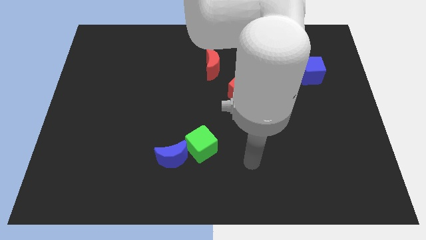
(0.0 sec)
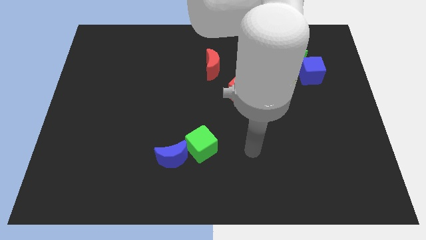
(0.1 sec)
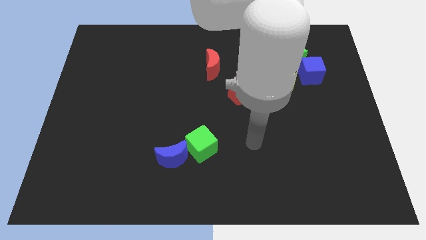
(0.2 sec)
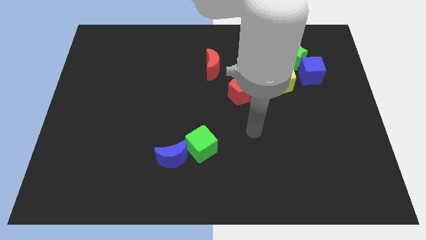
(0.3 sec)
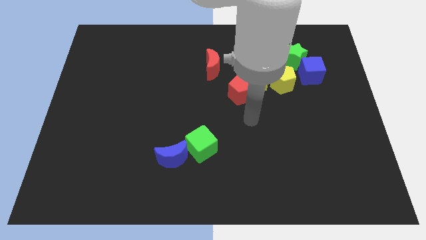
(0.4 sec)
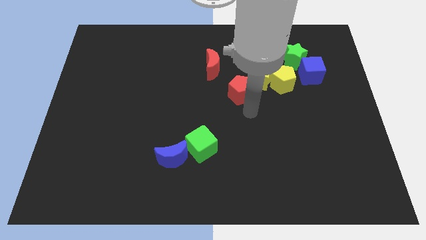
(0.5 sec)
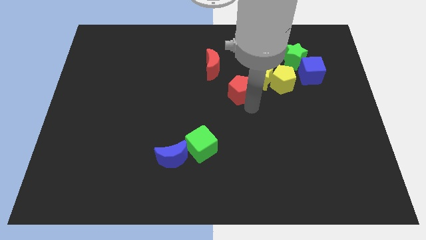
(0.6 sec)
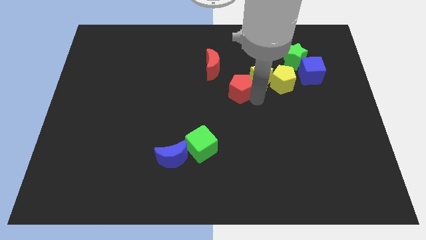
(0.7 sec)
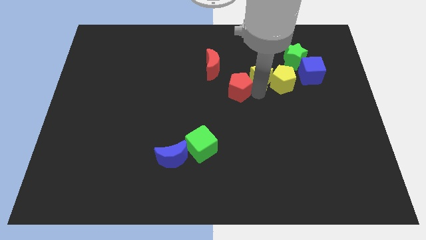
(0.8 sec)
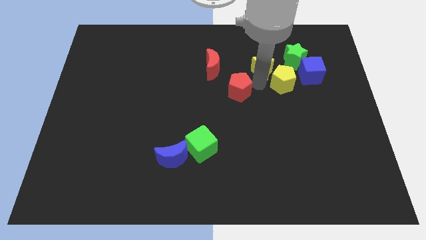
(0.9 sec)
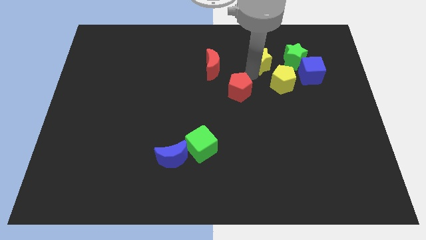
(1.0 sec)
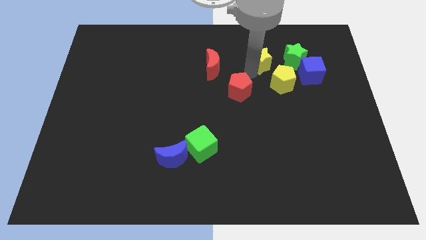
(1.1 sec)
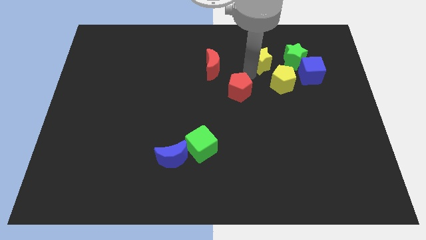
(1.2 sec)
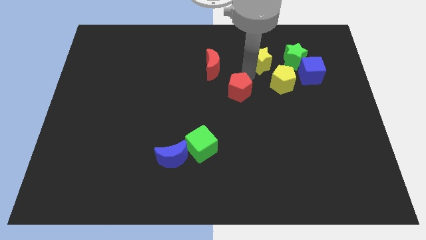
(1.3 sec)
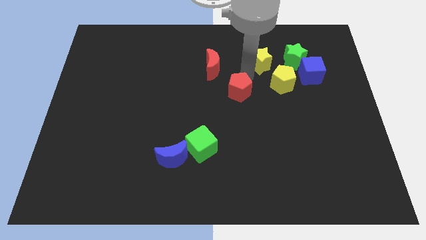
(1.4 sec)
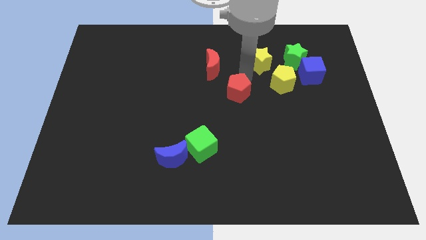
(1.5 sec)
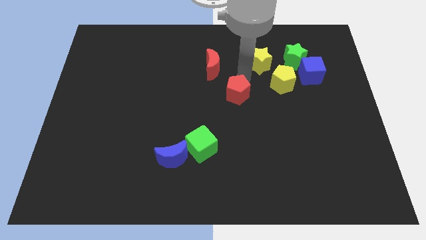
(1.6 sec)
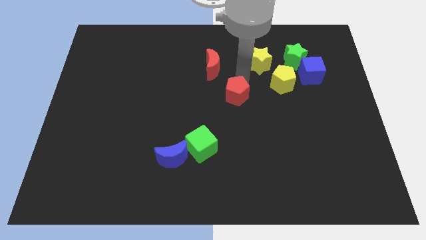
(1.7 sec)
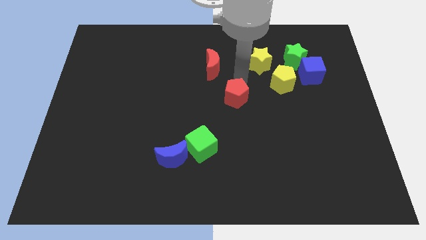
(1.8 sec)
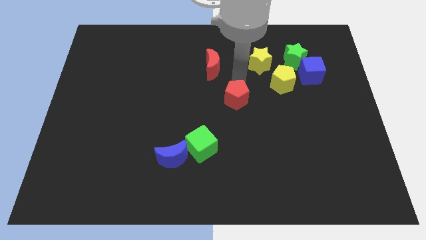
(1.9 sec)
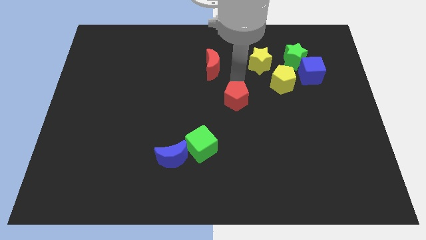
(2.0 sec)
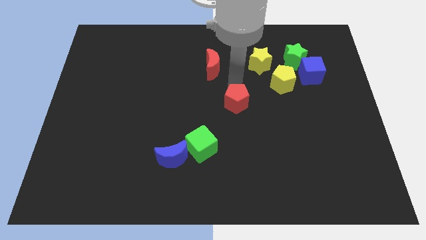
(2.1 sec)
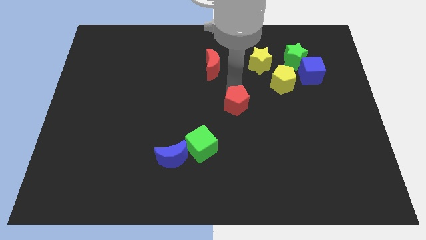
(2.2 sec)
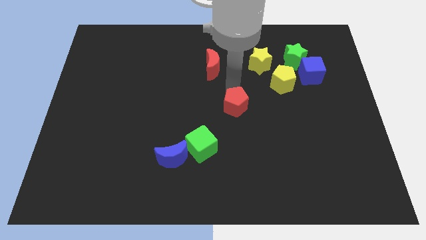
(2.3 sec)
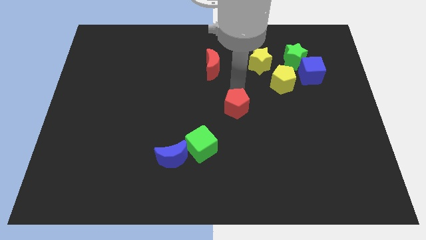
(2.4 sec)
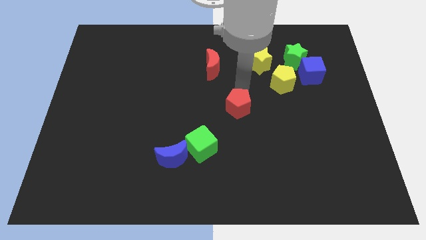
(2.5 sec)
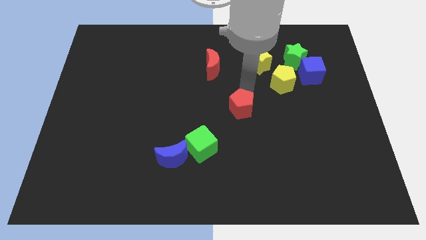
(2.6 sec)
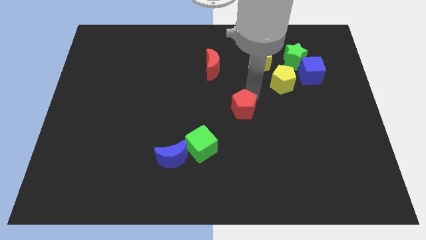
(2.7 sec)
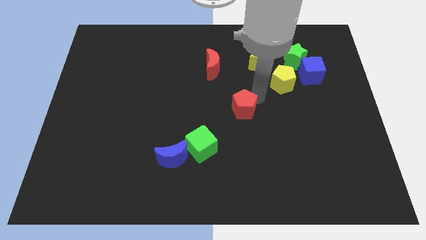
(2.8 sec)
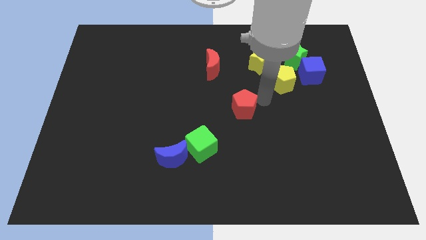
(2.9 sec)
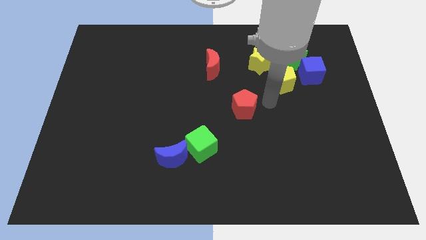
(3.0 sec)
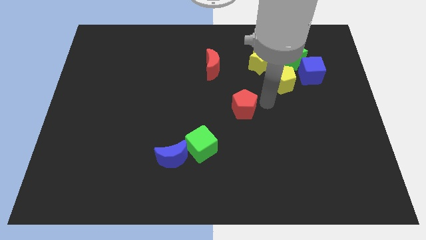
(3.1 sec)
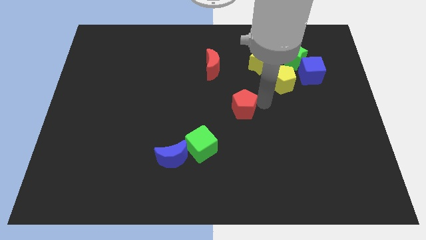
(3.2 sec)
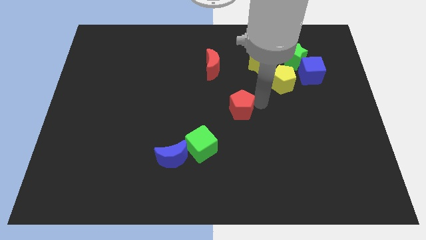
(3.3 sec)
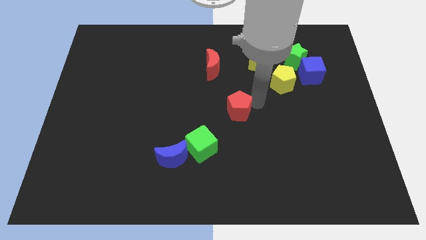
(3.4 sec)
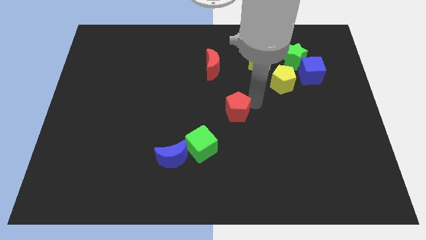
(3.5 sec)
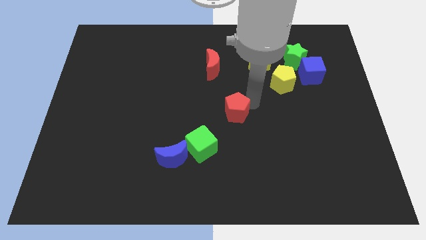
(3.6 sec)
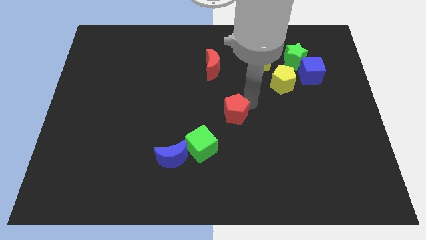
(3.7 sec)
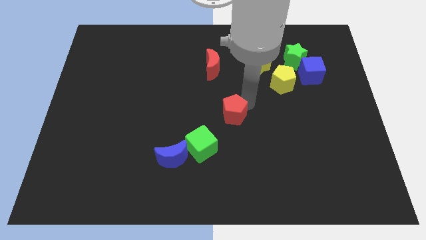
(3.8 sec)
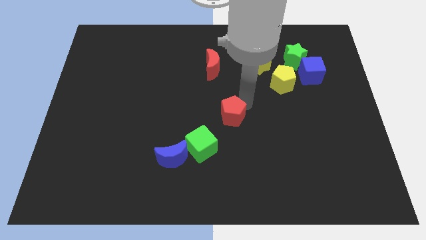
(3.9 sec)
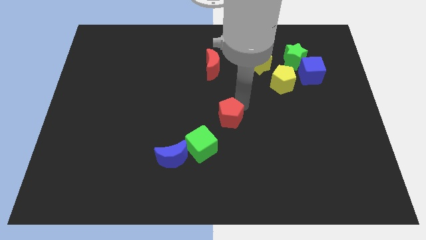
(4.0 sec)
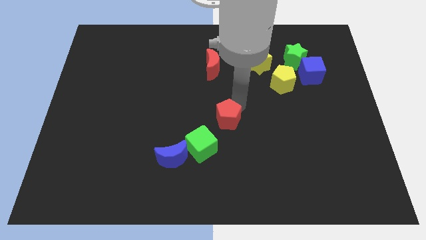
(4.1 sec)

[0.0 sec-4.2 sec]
push the red pentagon a little down and left diagonally

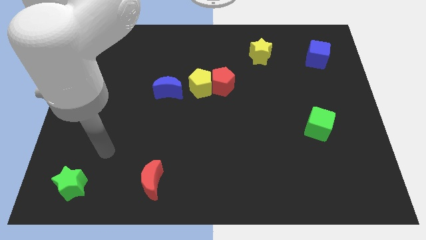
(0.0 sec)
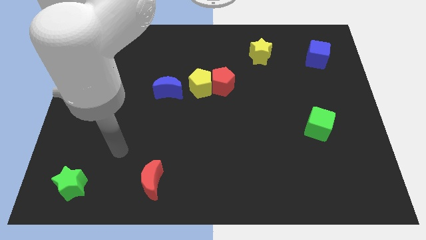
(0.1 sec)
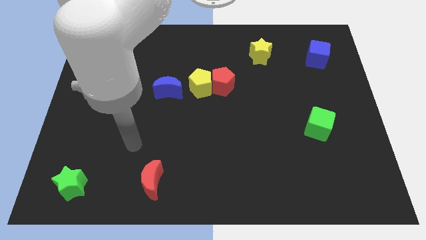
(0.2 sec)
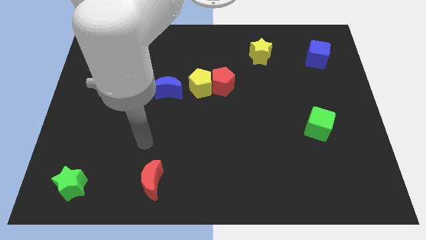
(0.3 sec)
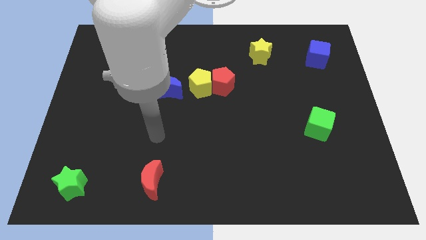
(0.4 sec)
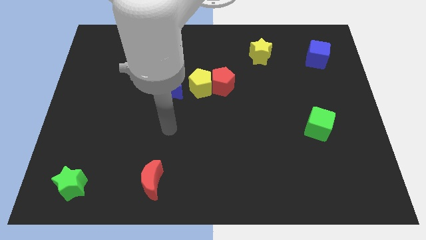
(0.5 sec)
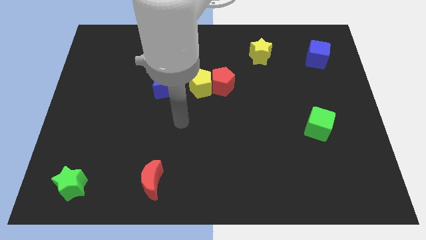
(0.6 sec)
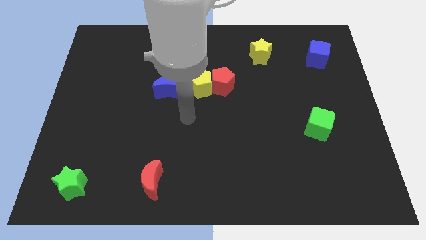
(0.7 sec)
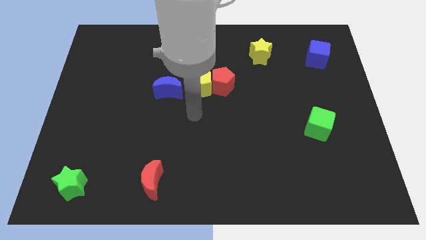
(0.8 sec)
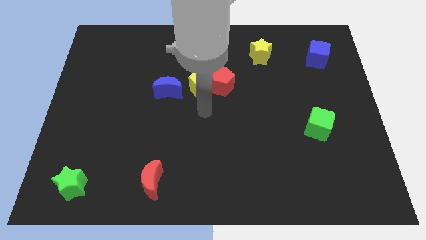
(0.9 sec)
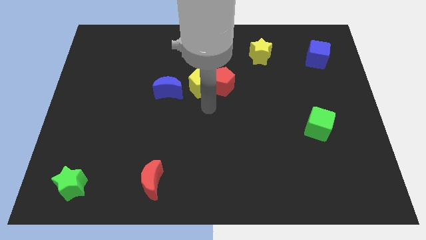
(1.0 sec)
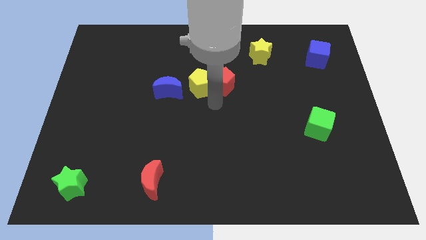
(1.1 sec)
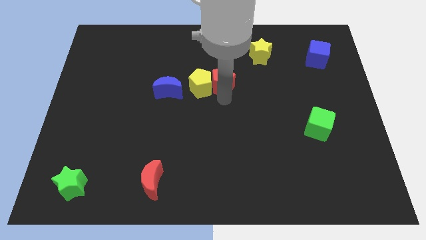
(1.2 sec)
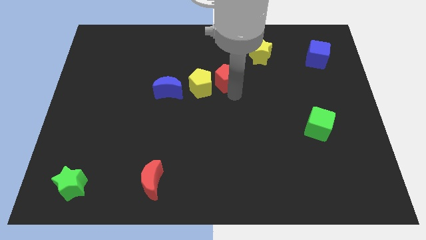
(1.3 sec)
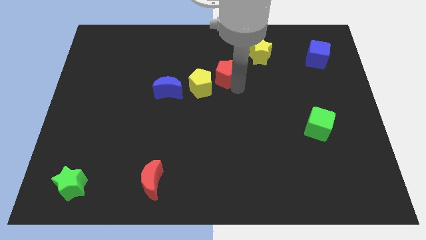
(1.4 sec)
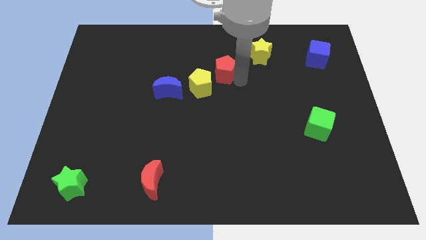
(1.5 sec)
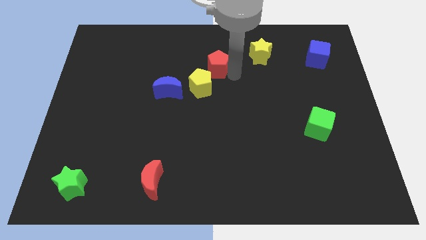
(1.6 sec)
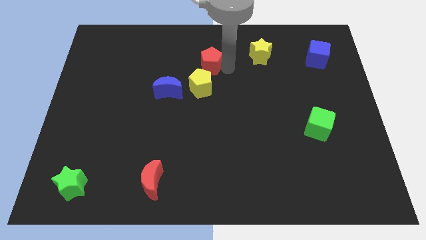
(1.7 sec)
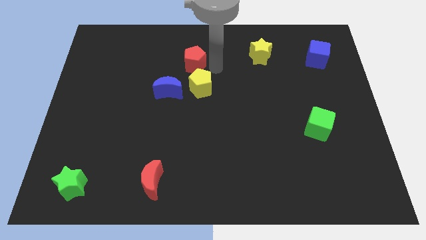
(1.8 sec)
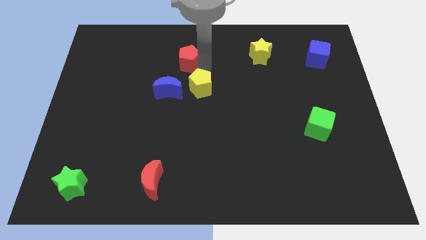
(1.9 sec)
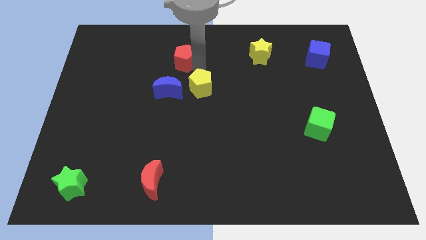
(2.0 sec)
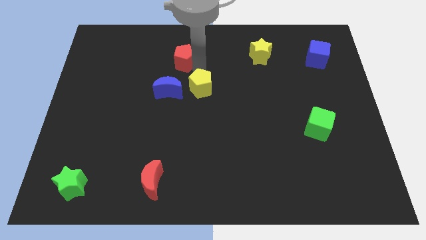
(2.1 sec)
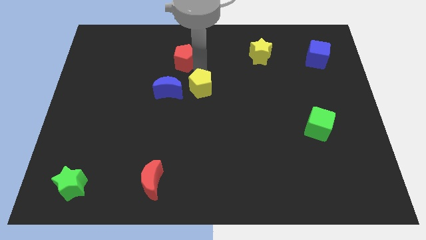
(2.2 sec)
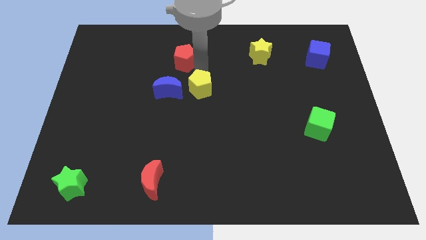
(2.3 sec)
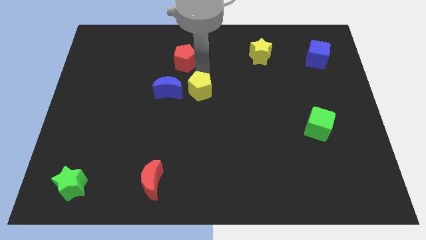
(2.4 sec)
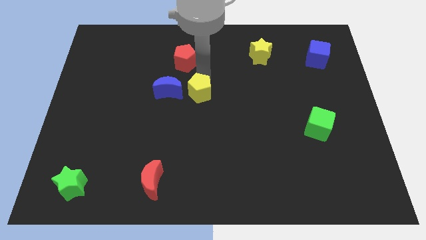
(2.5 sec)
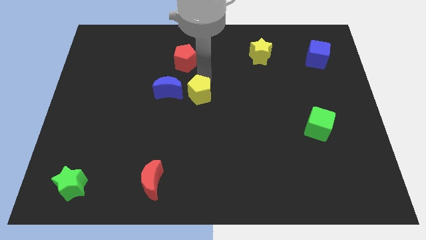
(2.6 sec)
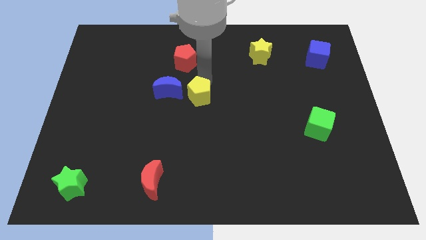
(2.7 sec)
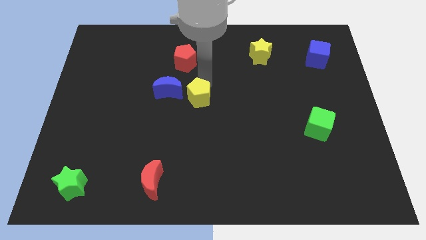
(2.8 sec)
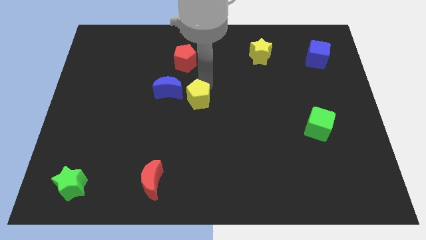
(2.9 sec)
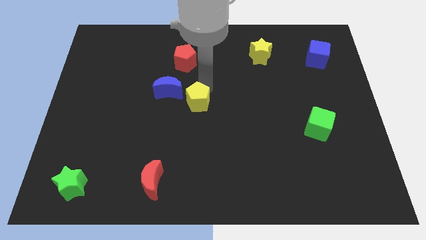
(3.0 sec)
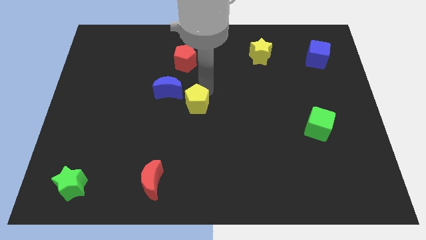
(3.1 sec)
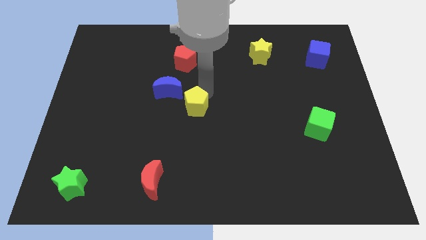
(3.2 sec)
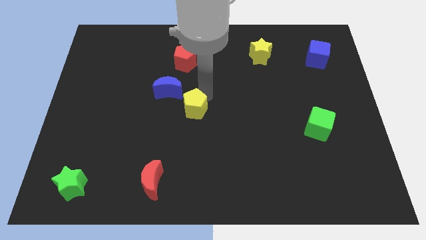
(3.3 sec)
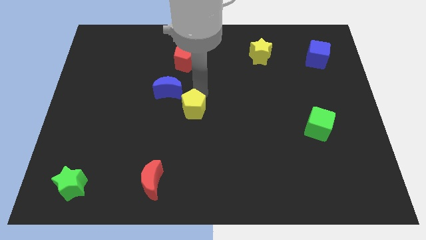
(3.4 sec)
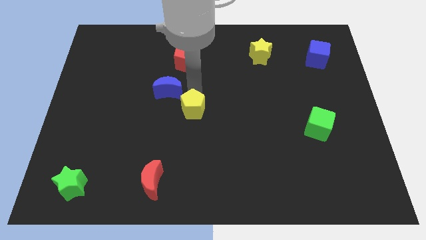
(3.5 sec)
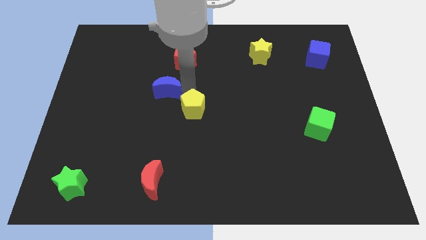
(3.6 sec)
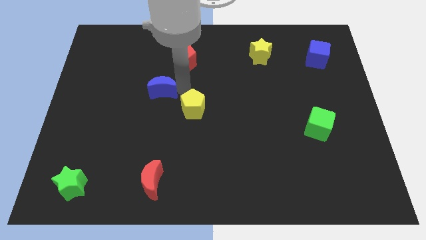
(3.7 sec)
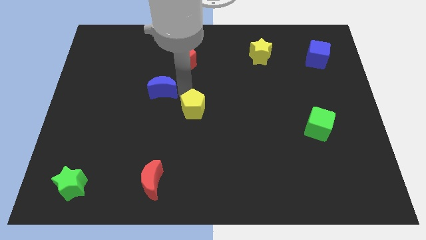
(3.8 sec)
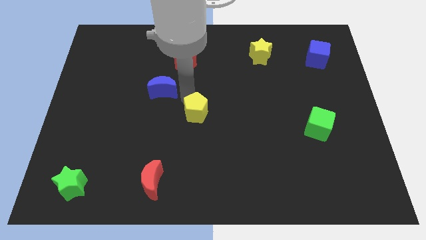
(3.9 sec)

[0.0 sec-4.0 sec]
slightly slide the yellow pentagon downwards
